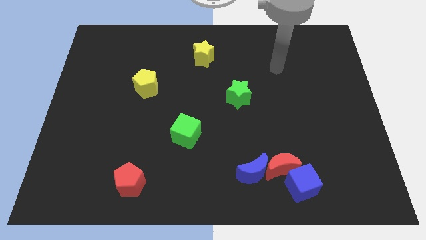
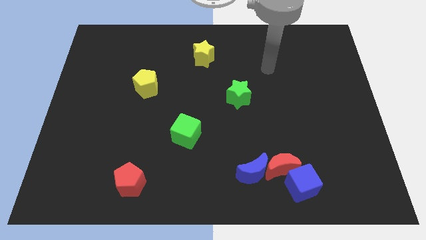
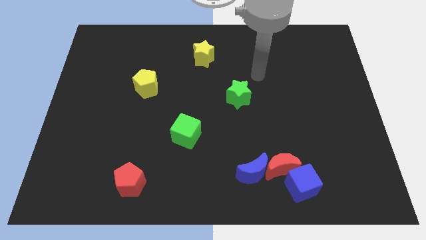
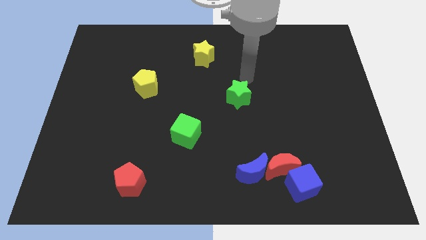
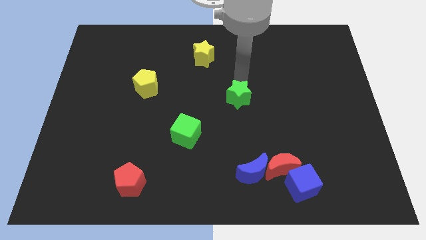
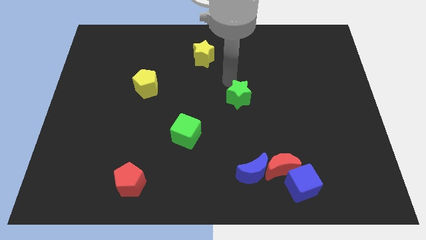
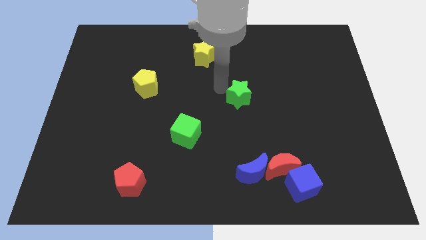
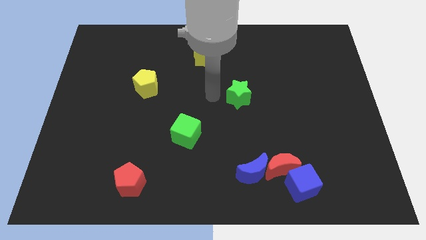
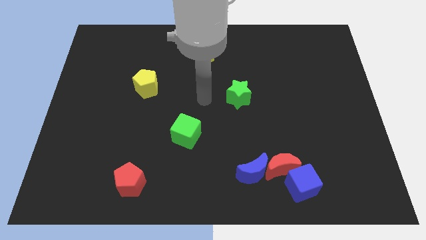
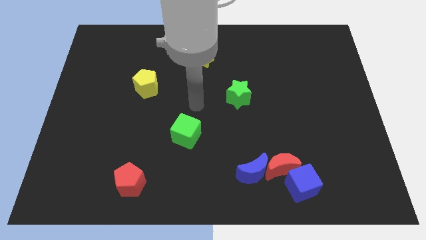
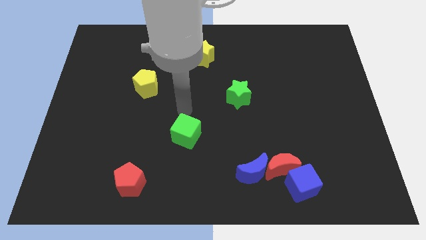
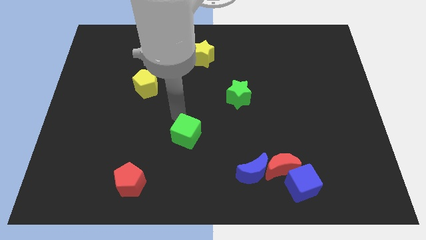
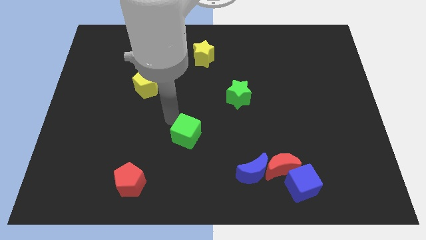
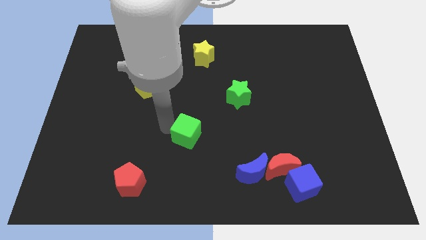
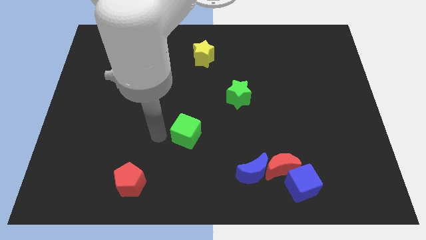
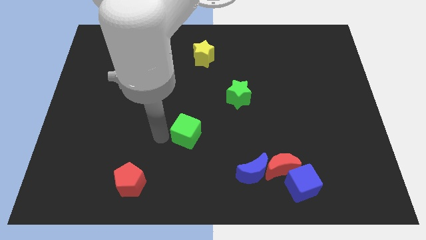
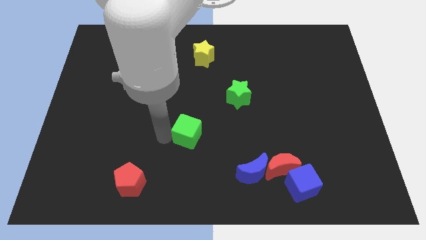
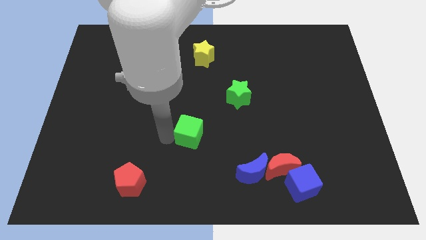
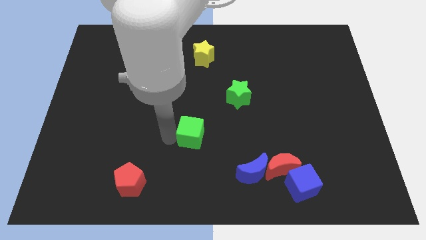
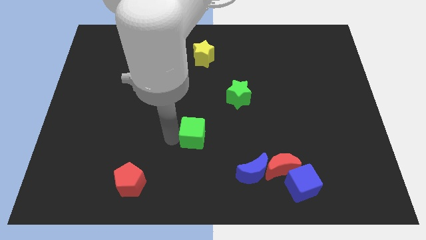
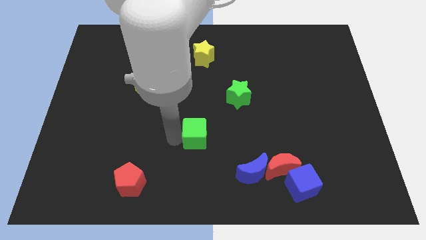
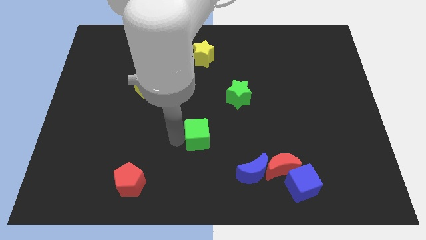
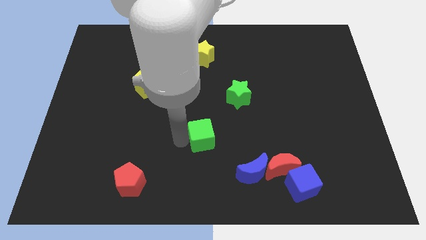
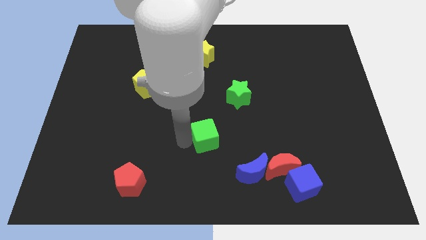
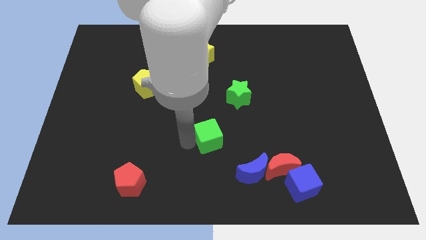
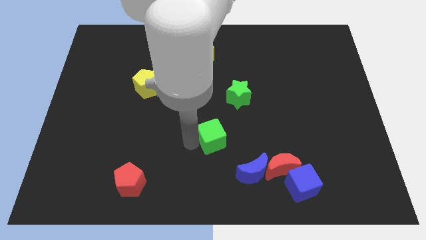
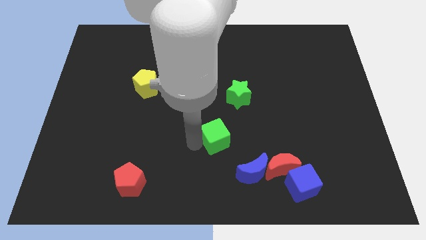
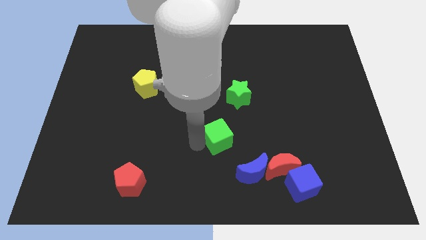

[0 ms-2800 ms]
move the green cube to the right somewhat

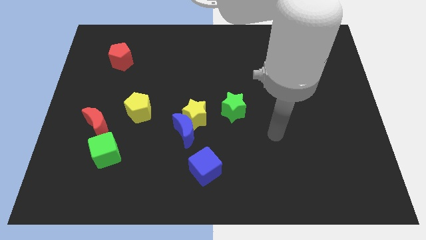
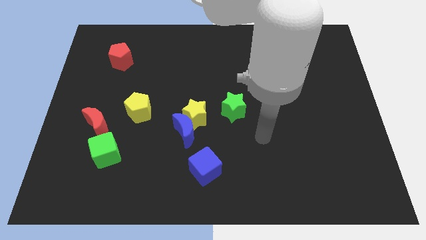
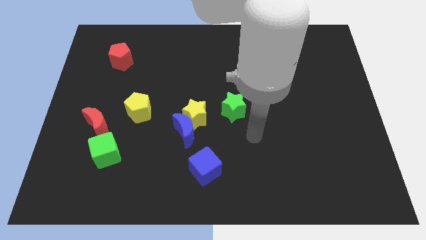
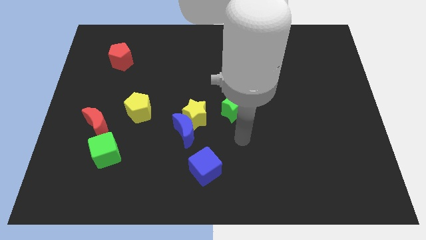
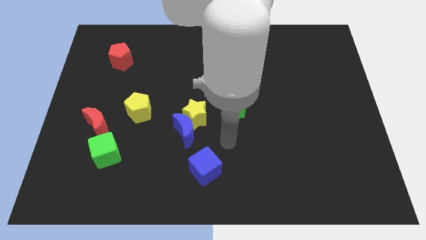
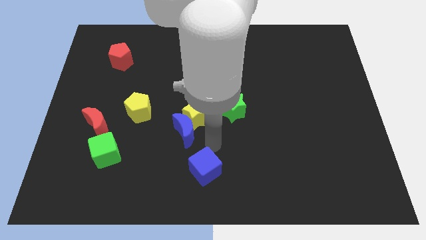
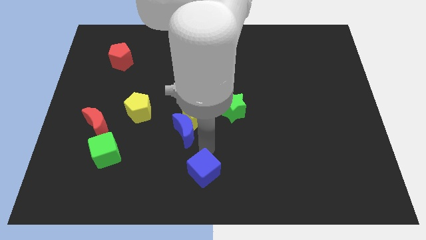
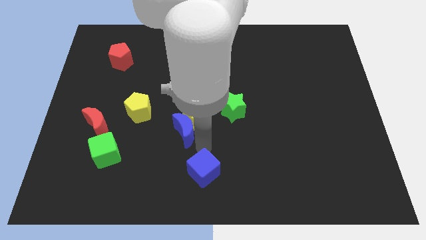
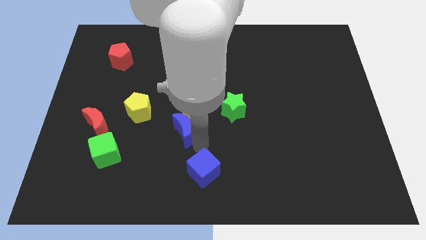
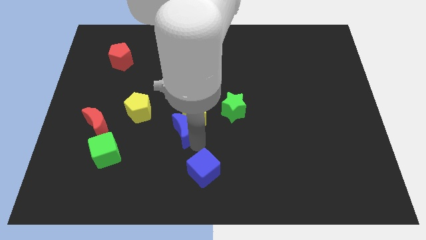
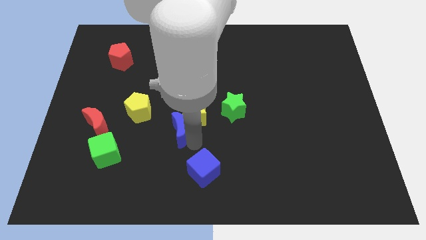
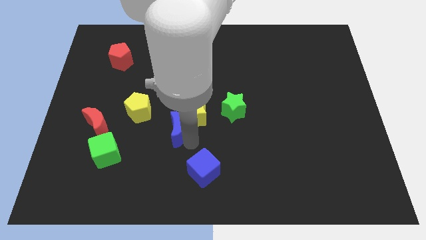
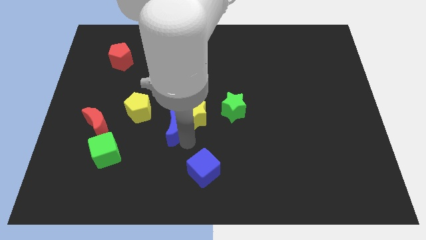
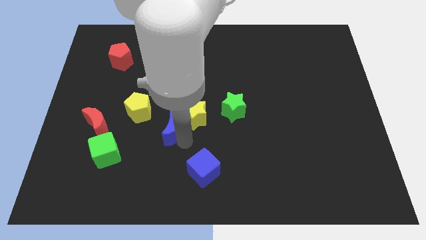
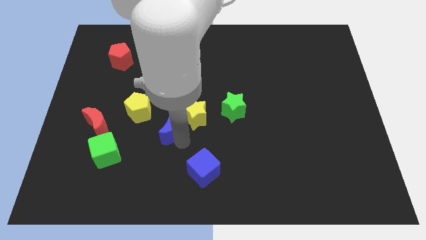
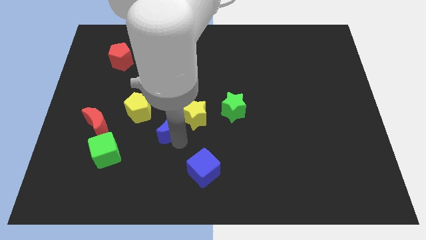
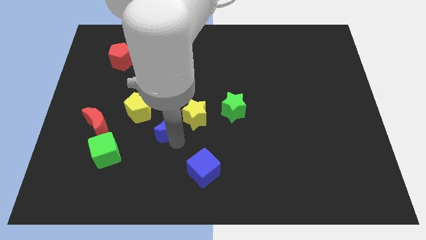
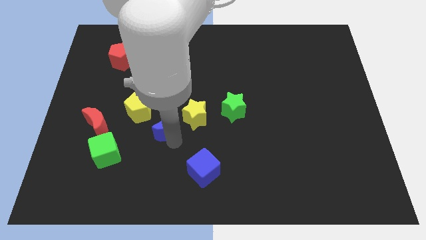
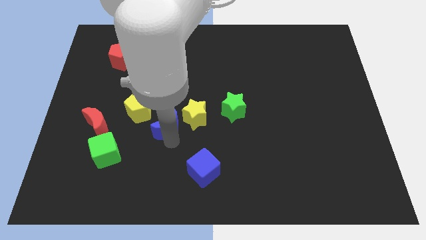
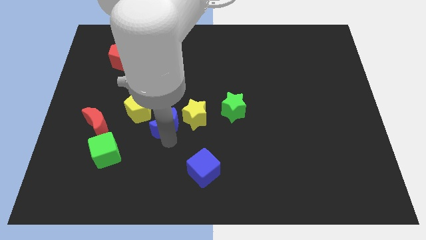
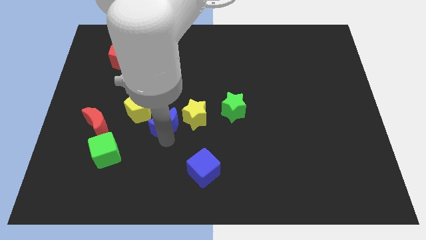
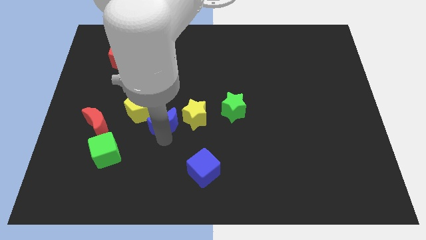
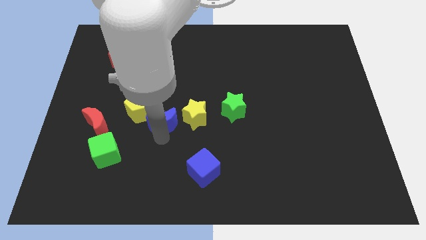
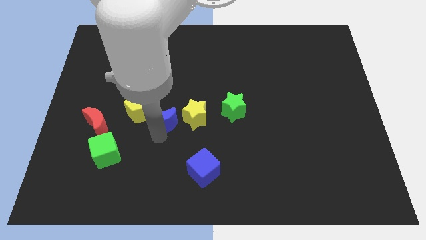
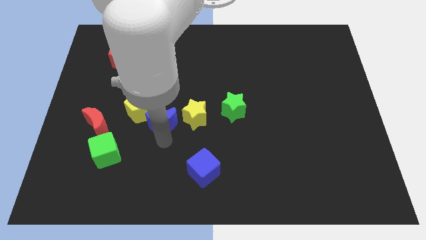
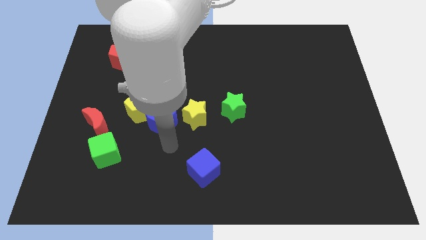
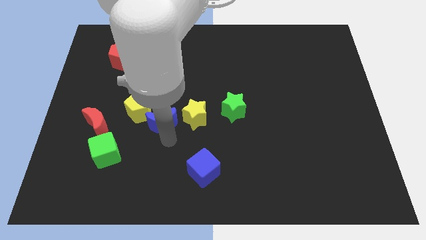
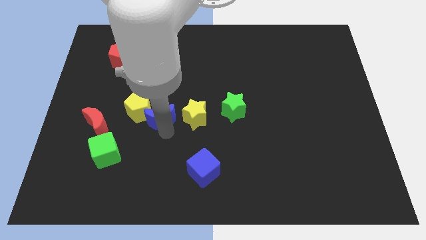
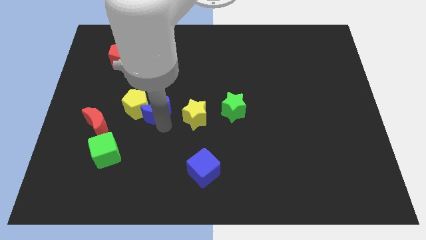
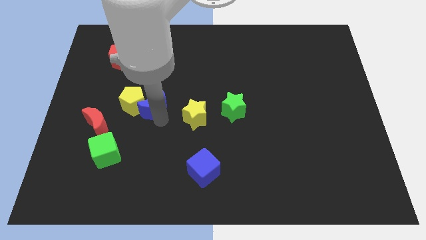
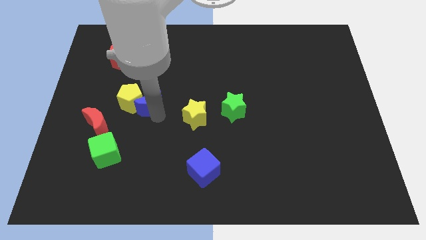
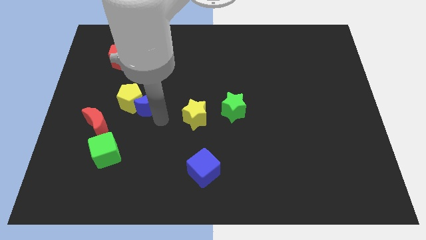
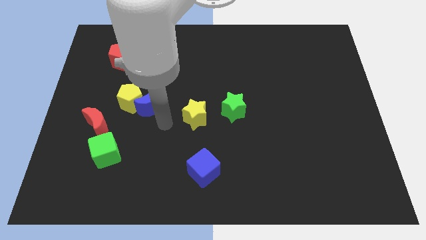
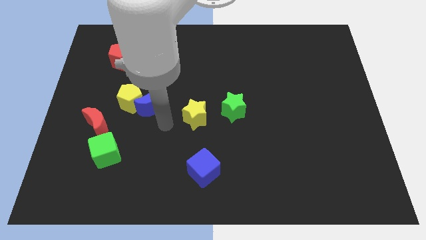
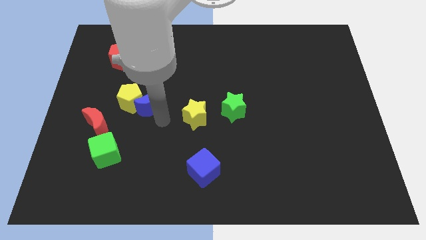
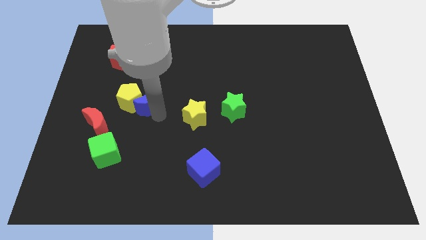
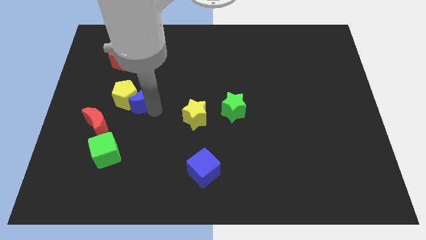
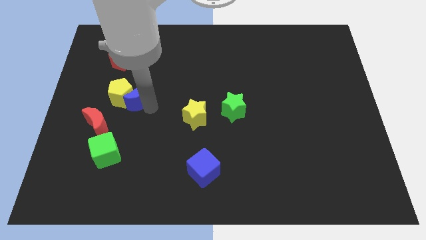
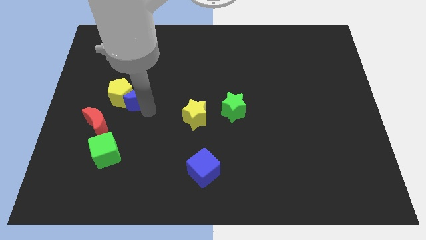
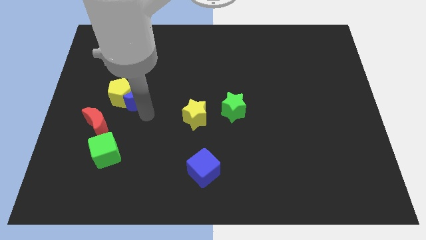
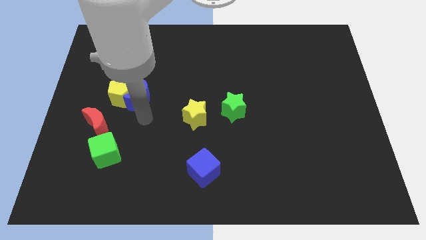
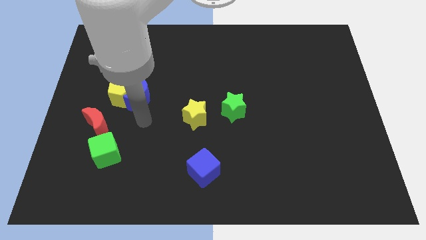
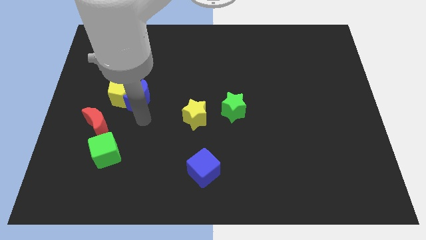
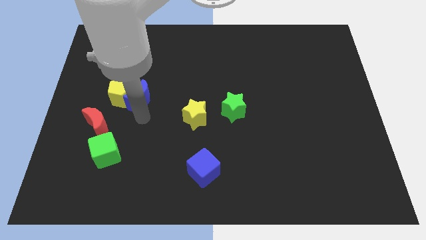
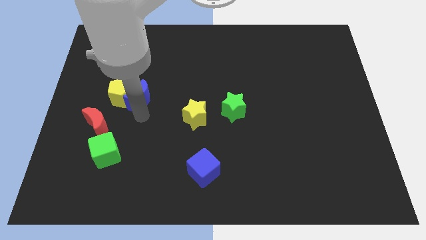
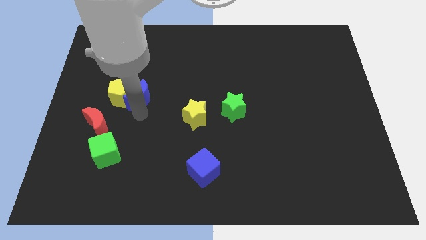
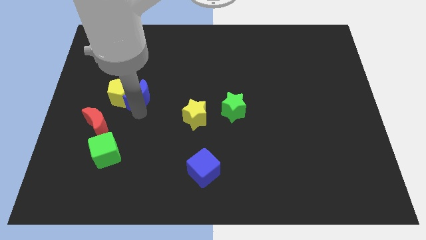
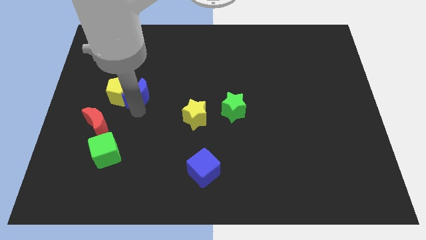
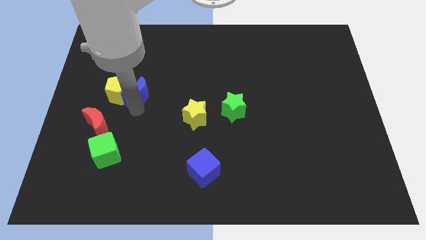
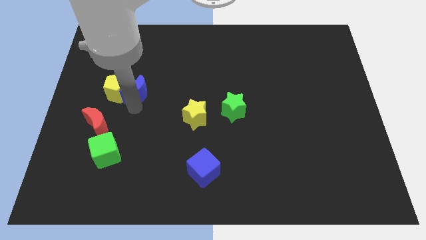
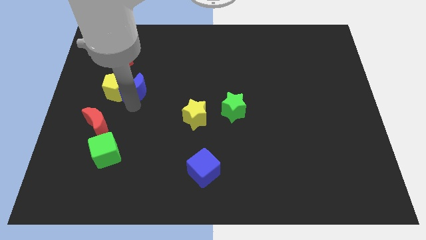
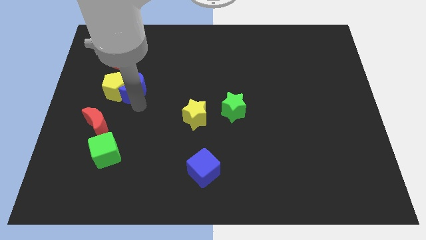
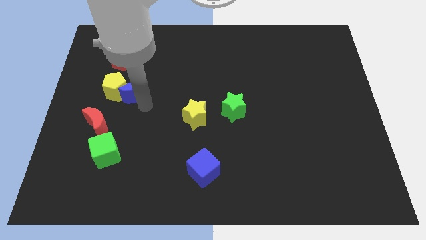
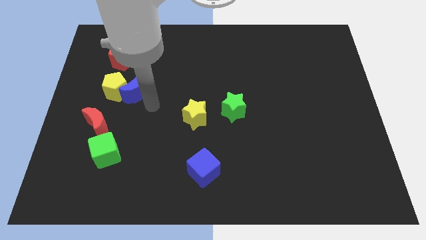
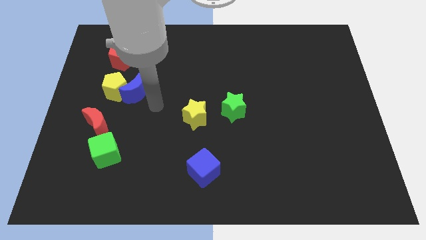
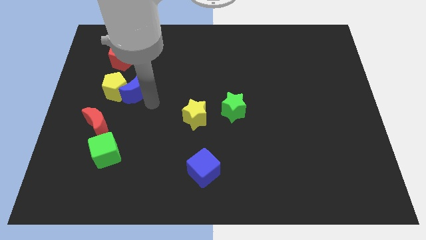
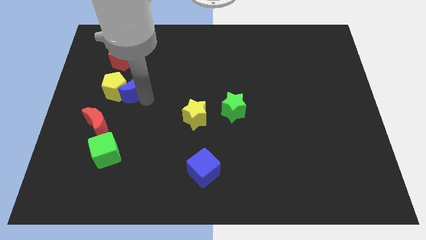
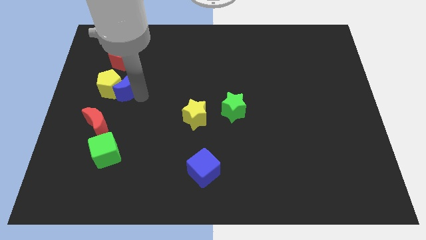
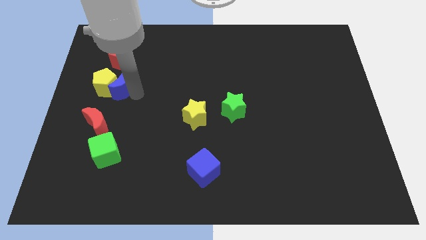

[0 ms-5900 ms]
move the blue moon upwards and then left
